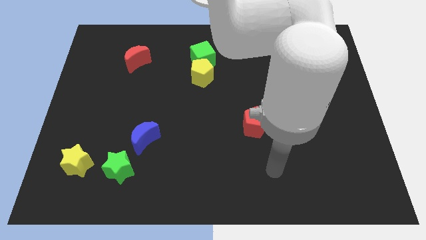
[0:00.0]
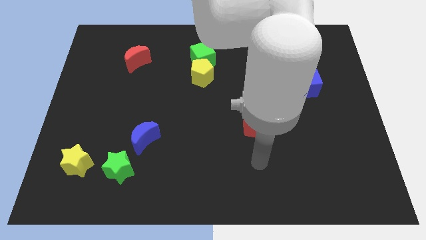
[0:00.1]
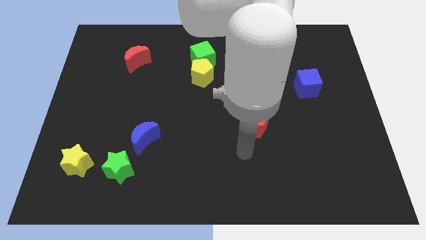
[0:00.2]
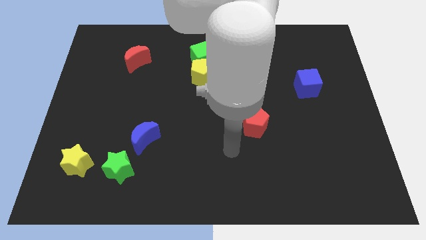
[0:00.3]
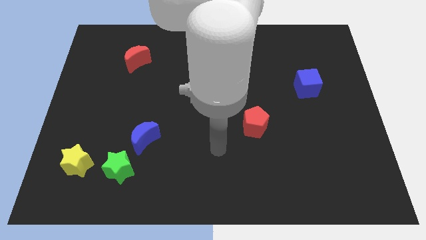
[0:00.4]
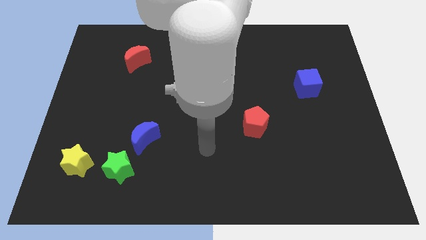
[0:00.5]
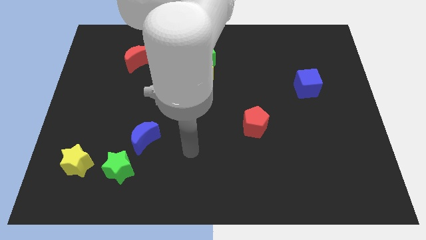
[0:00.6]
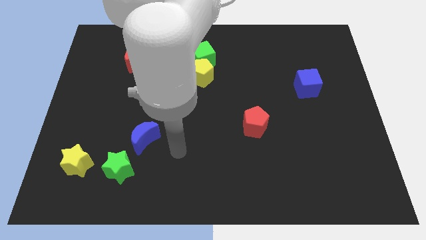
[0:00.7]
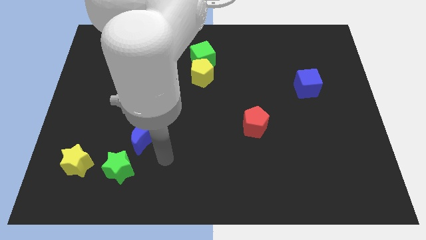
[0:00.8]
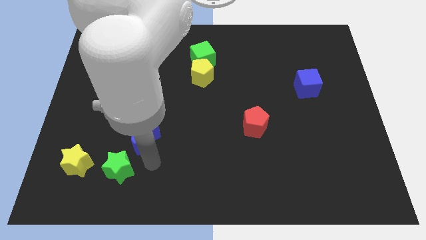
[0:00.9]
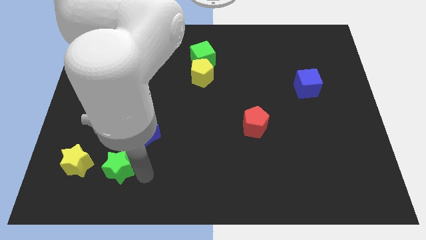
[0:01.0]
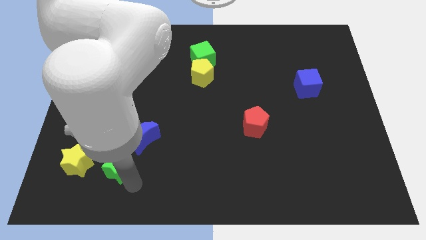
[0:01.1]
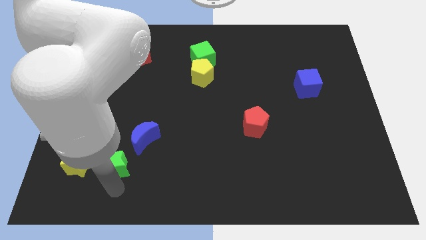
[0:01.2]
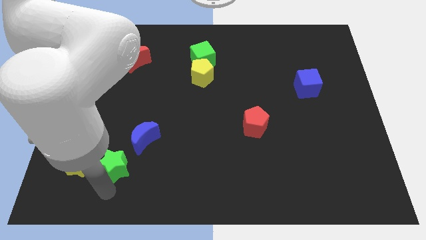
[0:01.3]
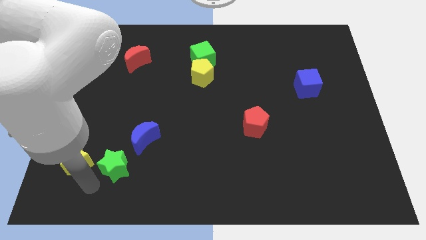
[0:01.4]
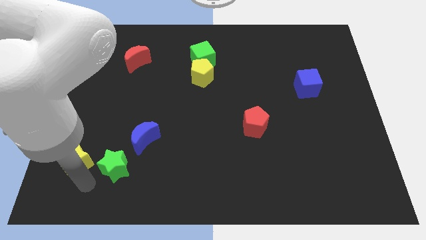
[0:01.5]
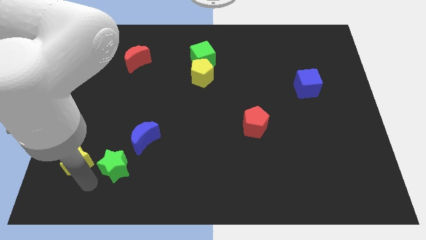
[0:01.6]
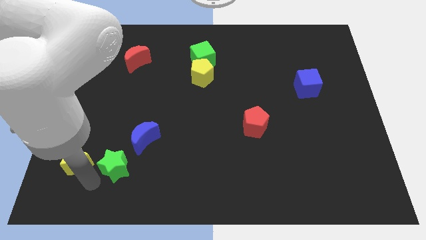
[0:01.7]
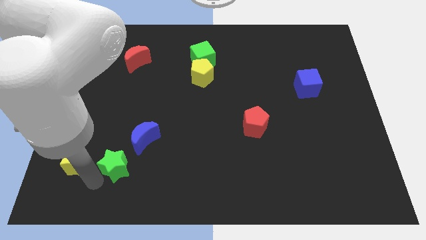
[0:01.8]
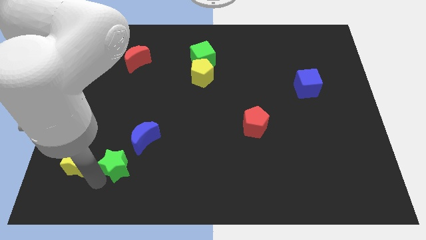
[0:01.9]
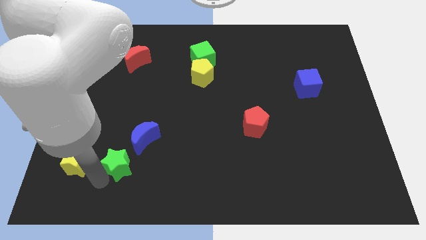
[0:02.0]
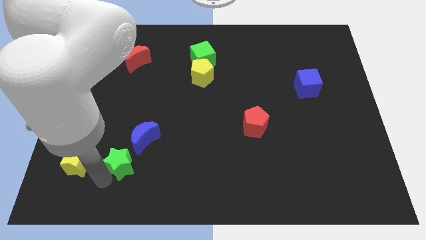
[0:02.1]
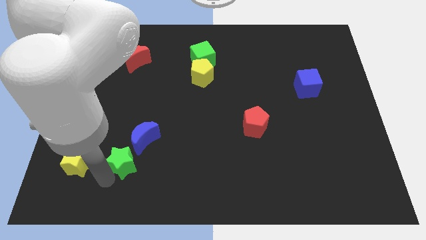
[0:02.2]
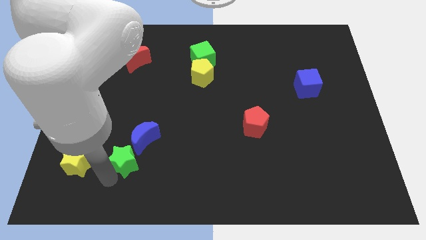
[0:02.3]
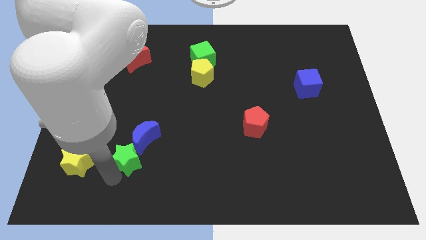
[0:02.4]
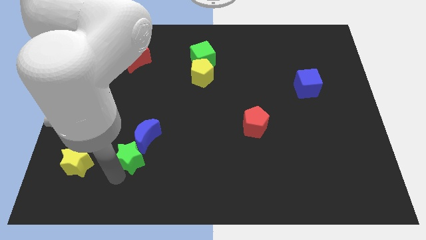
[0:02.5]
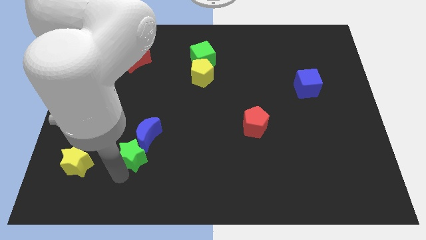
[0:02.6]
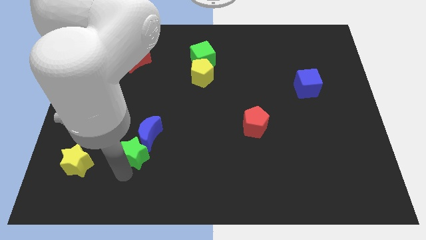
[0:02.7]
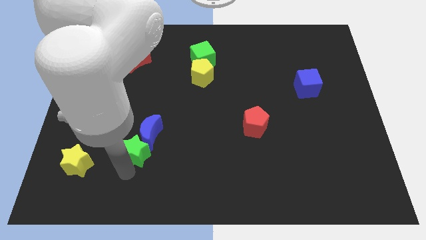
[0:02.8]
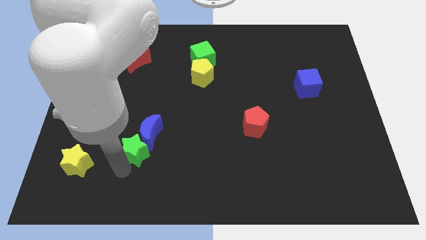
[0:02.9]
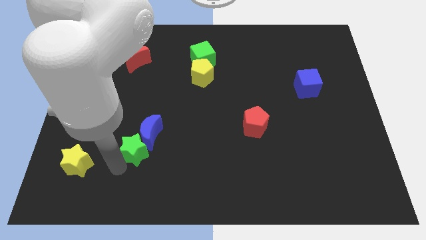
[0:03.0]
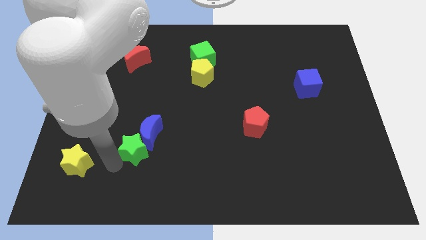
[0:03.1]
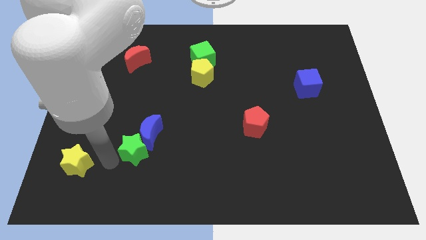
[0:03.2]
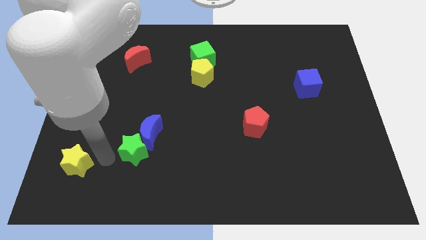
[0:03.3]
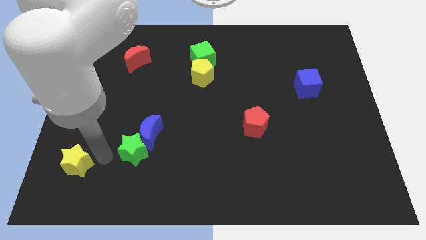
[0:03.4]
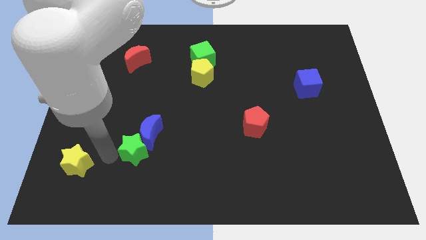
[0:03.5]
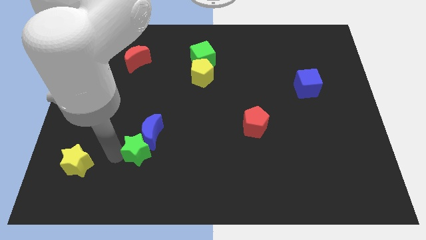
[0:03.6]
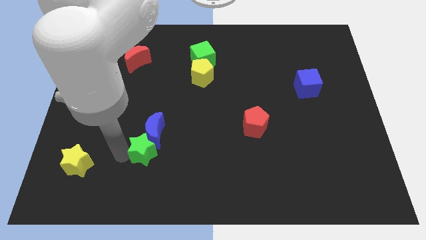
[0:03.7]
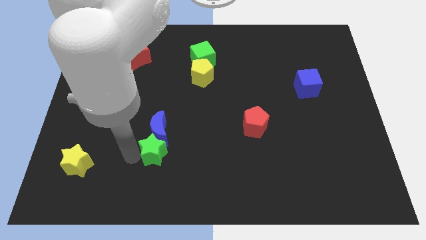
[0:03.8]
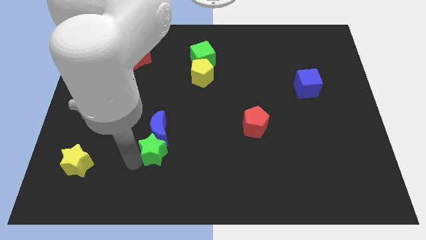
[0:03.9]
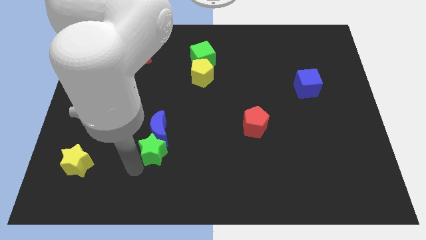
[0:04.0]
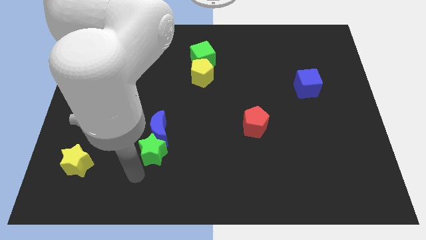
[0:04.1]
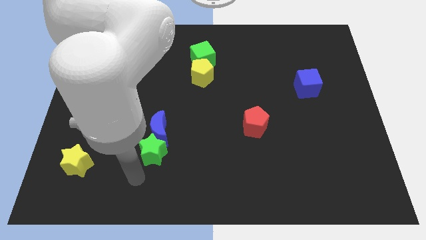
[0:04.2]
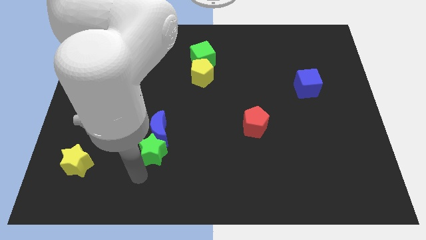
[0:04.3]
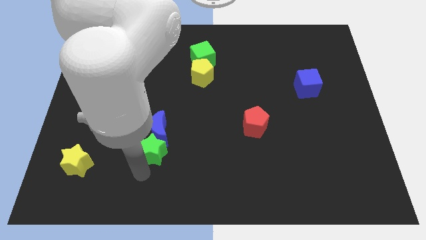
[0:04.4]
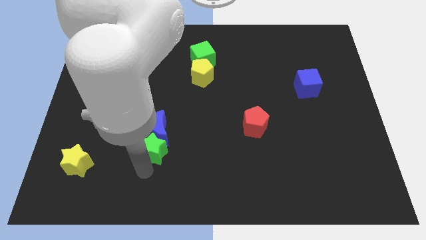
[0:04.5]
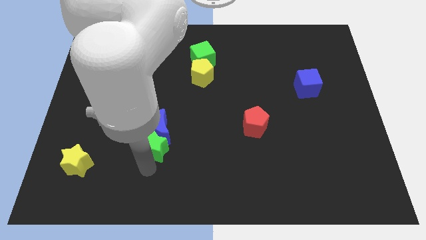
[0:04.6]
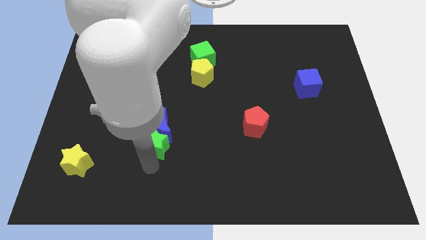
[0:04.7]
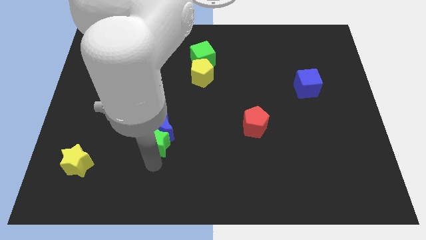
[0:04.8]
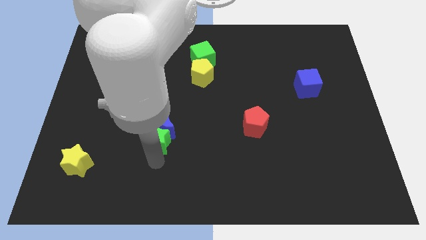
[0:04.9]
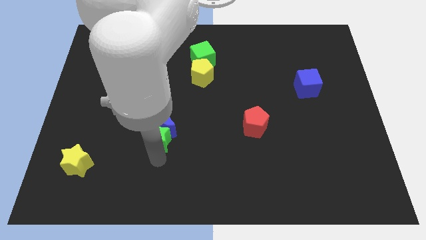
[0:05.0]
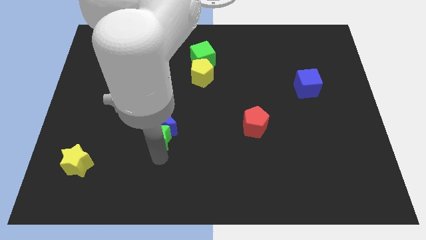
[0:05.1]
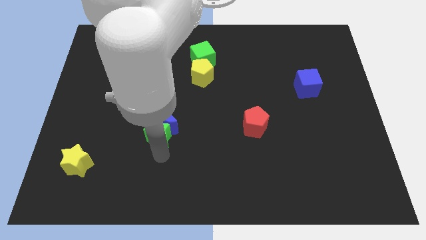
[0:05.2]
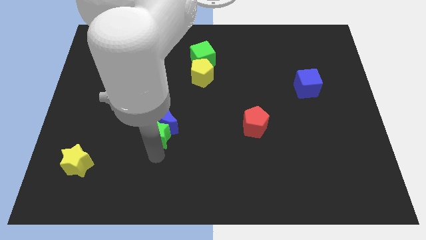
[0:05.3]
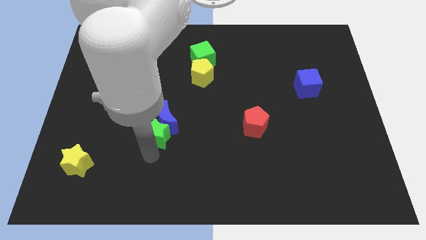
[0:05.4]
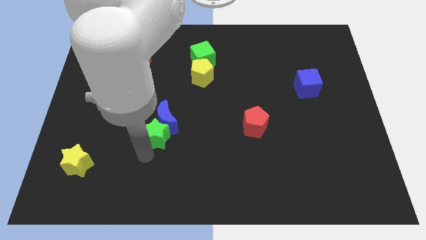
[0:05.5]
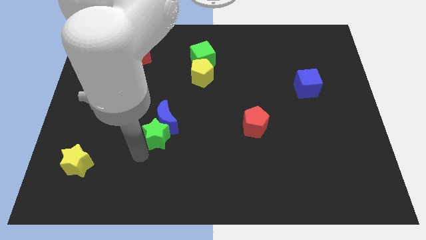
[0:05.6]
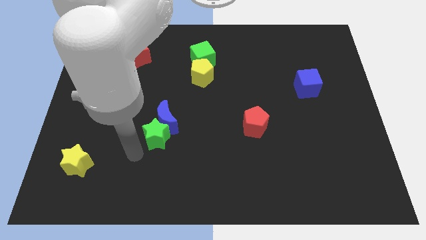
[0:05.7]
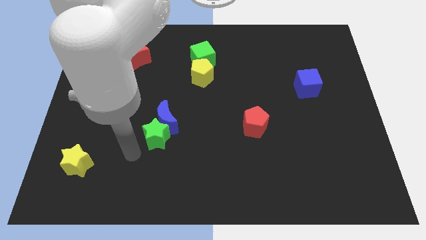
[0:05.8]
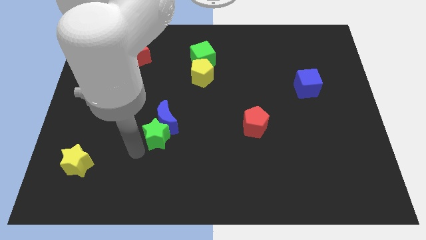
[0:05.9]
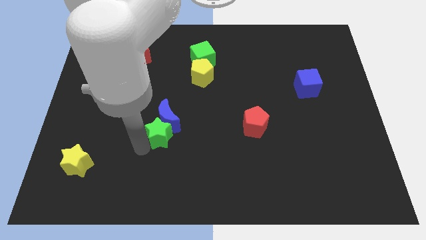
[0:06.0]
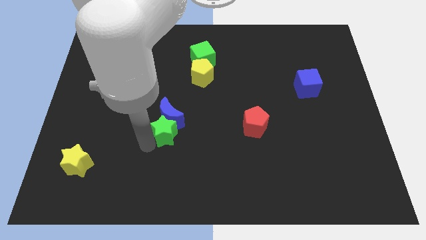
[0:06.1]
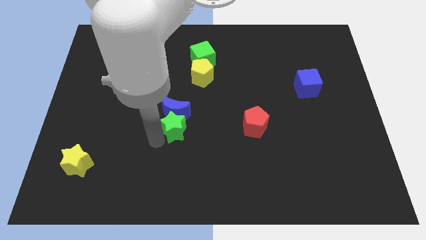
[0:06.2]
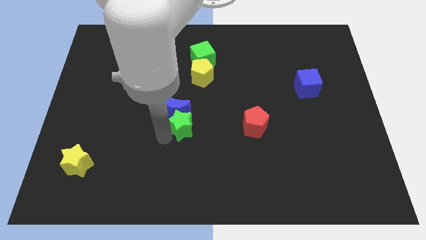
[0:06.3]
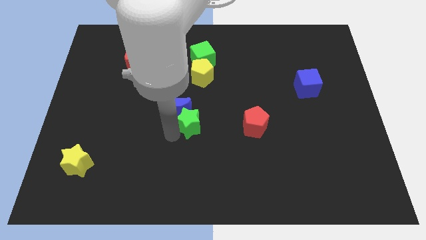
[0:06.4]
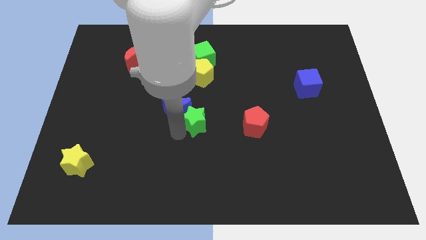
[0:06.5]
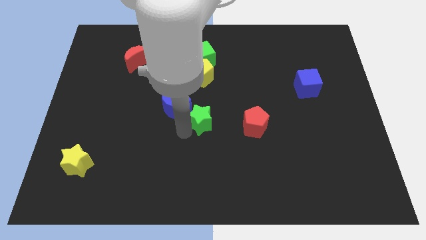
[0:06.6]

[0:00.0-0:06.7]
move the green star diagonally upwards and right

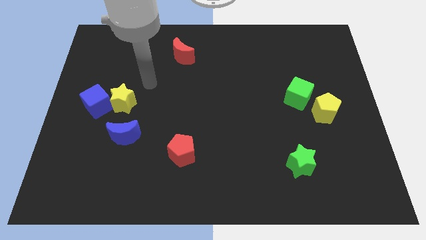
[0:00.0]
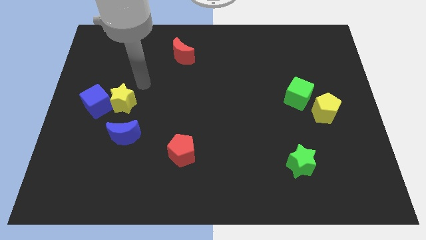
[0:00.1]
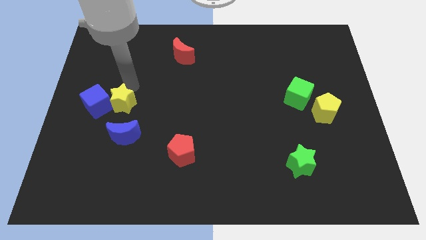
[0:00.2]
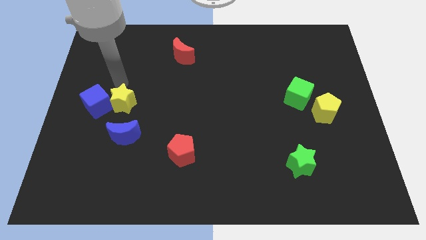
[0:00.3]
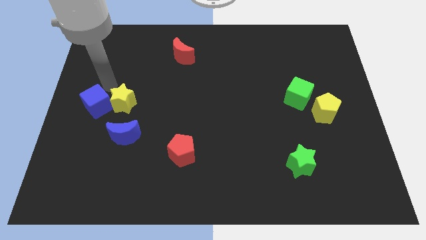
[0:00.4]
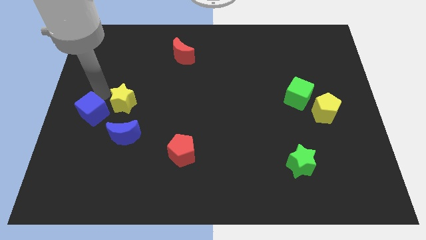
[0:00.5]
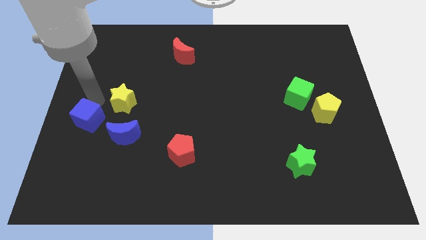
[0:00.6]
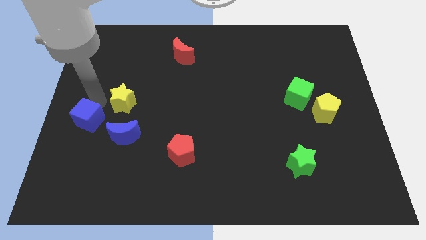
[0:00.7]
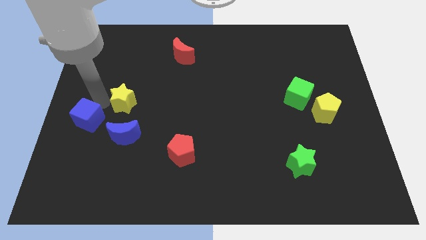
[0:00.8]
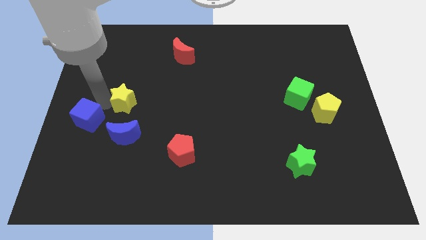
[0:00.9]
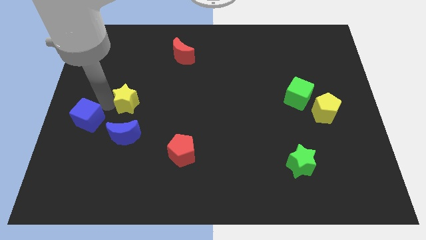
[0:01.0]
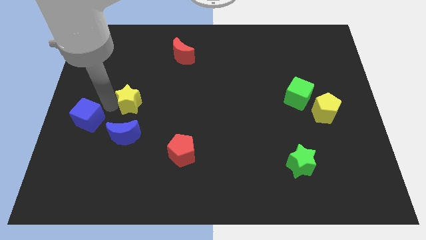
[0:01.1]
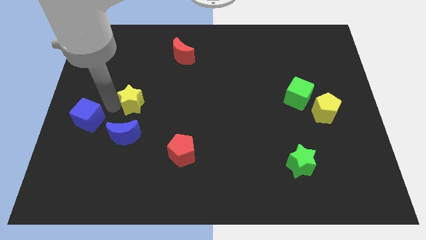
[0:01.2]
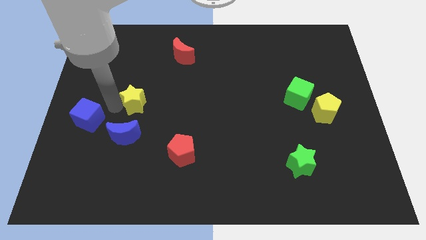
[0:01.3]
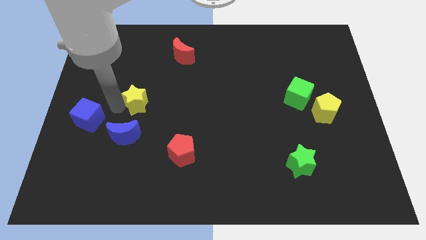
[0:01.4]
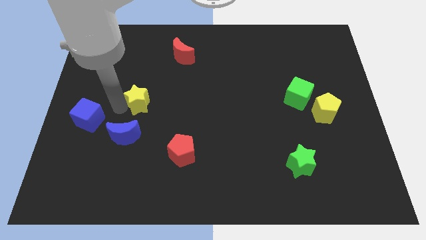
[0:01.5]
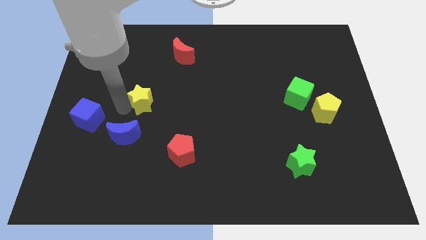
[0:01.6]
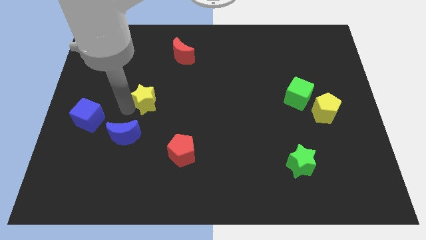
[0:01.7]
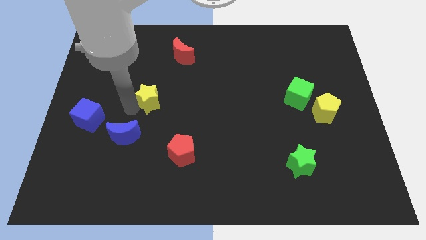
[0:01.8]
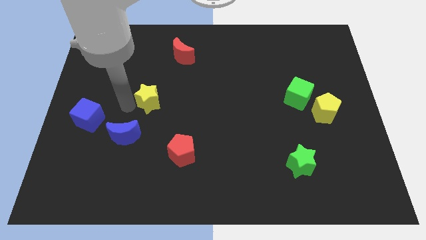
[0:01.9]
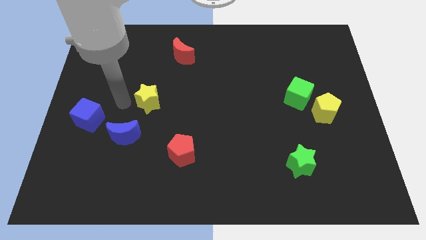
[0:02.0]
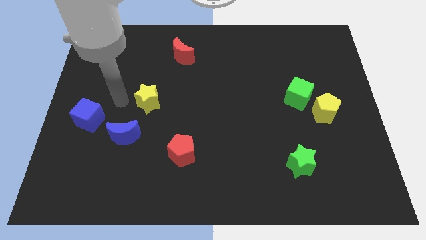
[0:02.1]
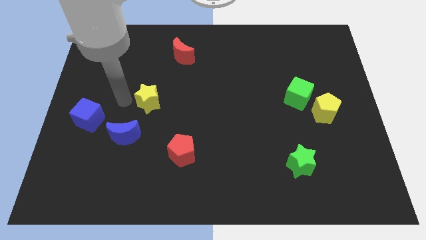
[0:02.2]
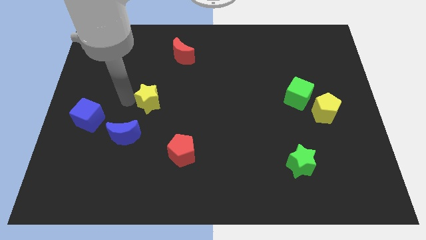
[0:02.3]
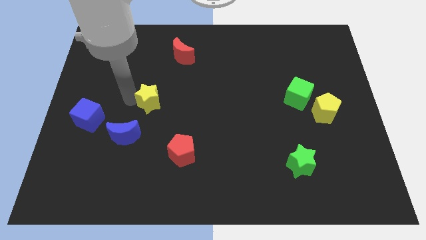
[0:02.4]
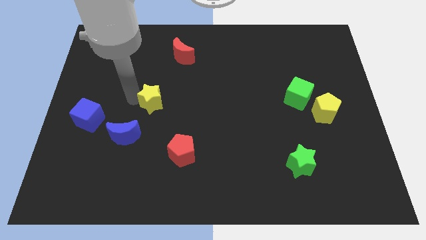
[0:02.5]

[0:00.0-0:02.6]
push the yellow star to the right a bit
